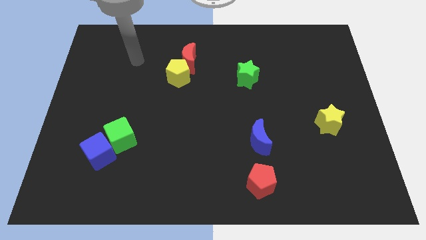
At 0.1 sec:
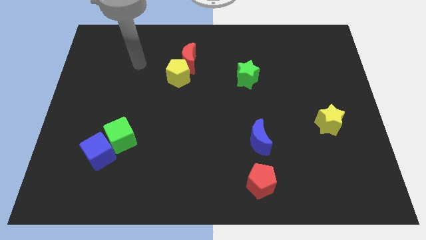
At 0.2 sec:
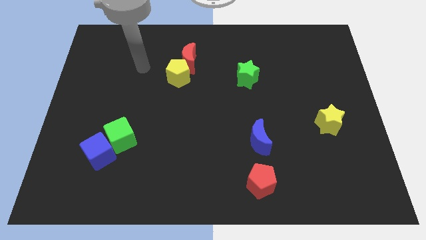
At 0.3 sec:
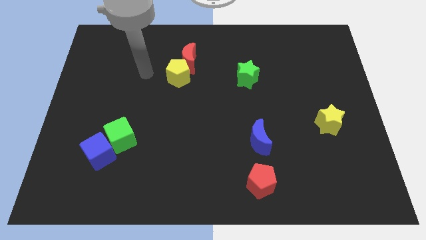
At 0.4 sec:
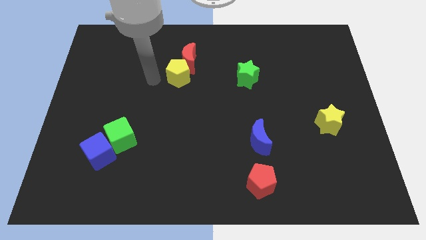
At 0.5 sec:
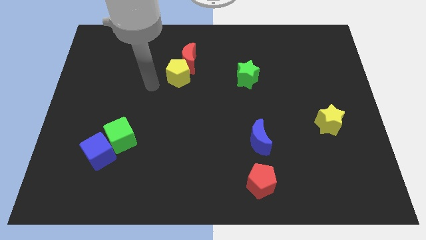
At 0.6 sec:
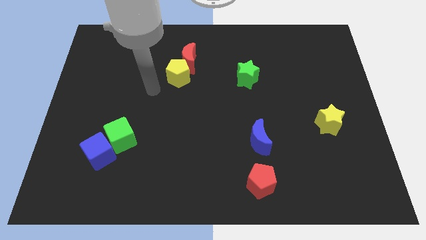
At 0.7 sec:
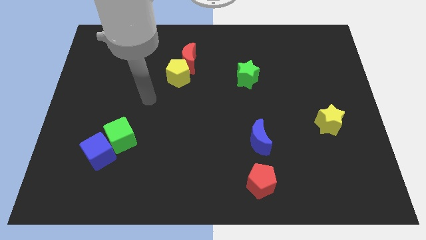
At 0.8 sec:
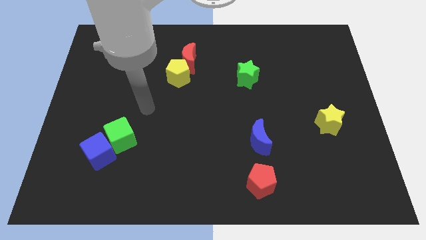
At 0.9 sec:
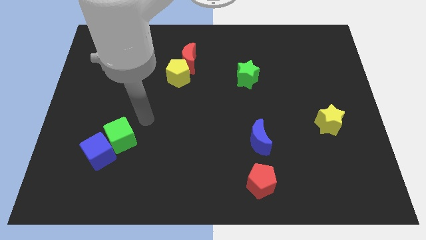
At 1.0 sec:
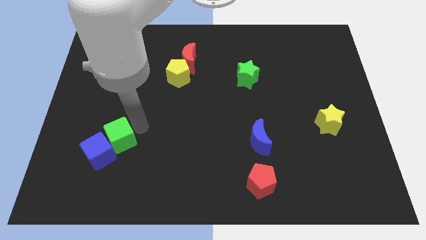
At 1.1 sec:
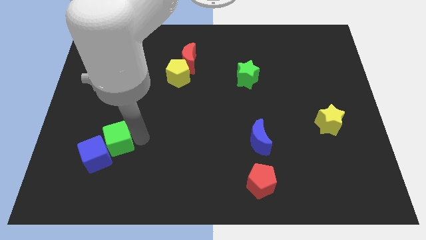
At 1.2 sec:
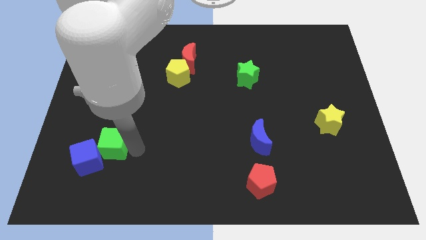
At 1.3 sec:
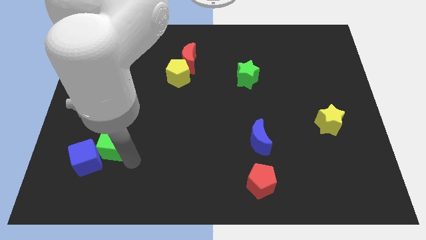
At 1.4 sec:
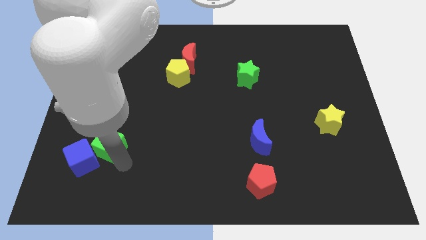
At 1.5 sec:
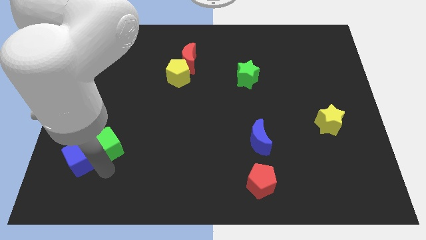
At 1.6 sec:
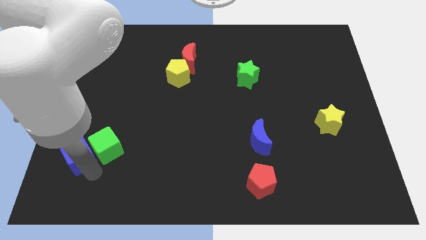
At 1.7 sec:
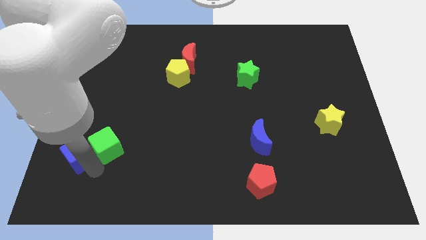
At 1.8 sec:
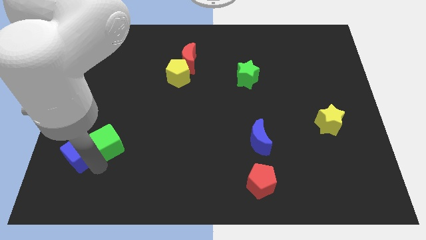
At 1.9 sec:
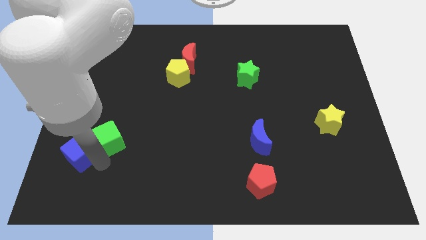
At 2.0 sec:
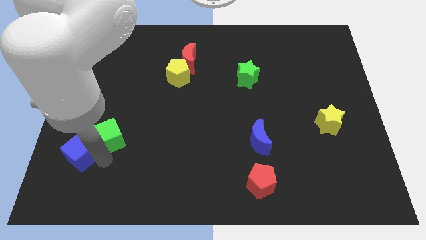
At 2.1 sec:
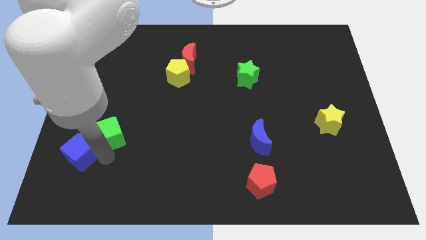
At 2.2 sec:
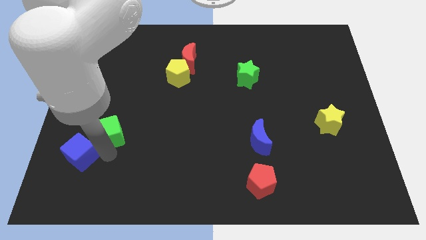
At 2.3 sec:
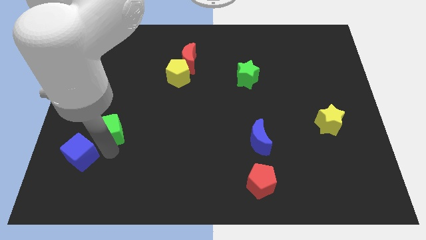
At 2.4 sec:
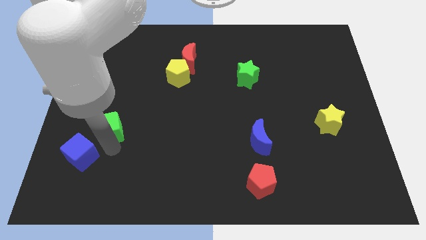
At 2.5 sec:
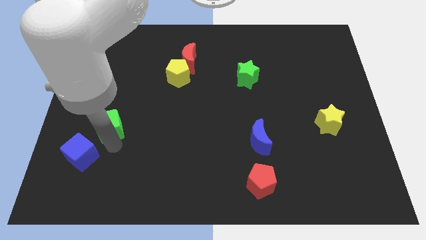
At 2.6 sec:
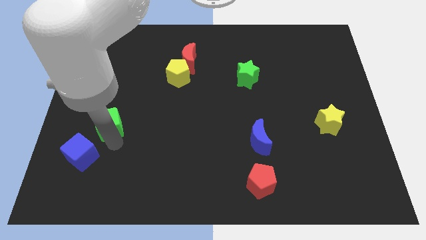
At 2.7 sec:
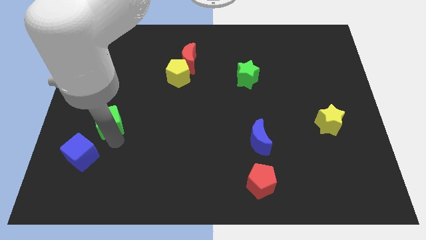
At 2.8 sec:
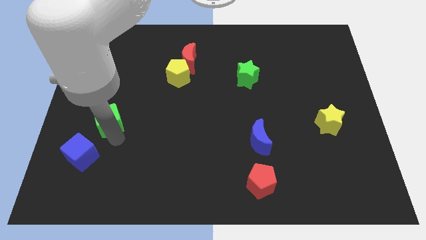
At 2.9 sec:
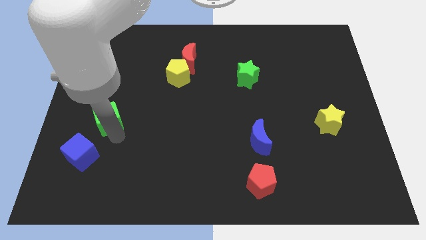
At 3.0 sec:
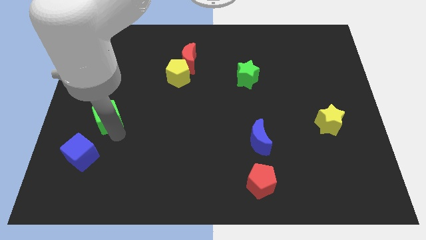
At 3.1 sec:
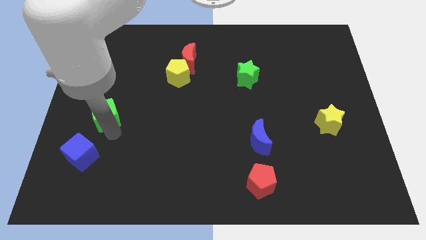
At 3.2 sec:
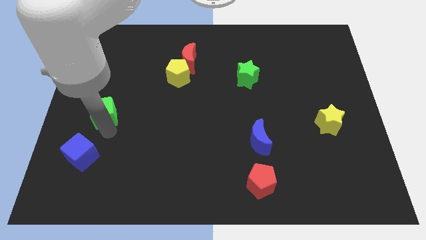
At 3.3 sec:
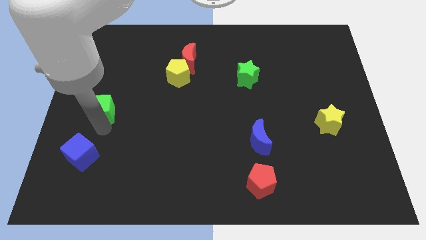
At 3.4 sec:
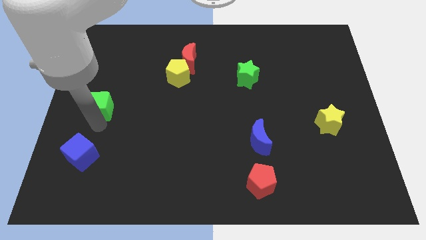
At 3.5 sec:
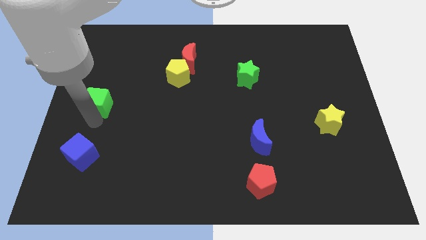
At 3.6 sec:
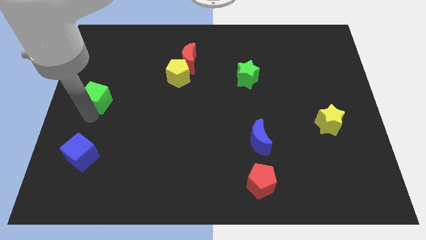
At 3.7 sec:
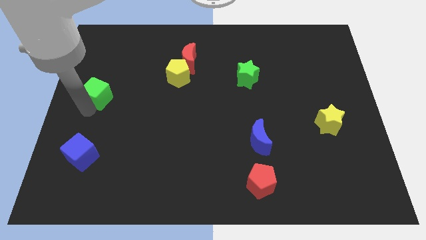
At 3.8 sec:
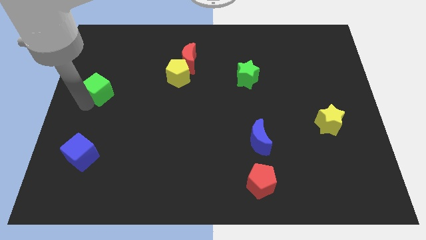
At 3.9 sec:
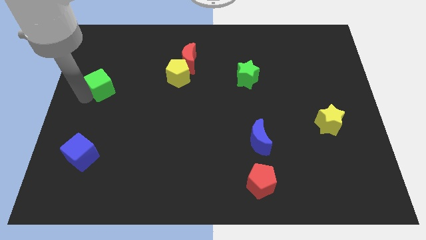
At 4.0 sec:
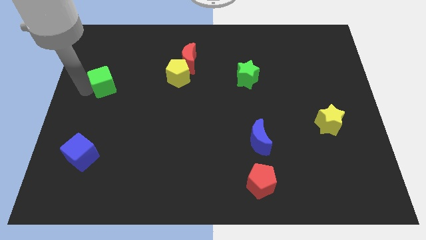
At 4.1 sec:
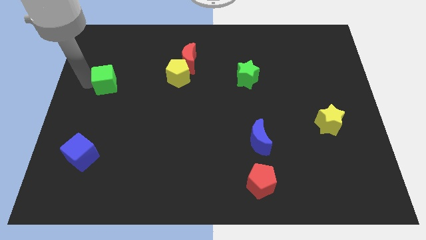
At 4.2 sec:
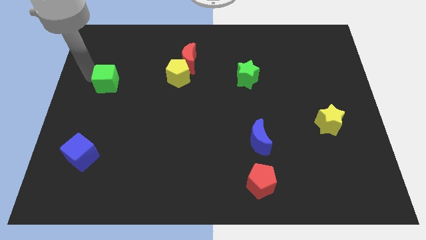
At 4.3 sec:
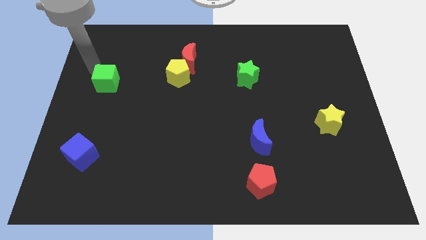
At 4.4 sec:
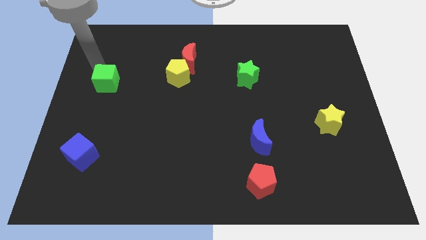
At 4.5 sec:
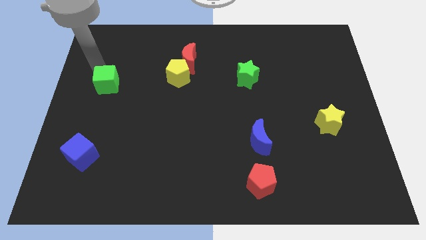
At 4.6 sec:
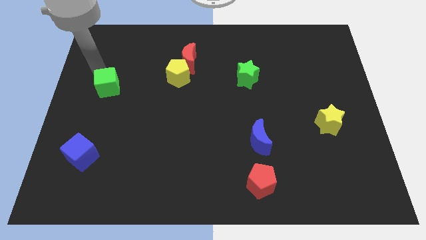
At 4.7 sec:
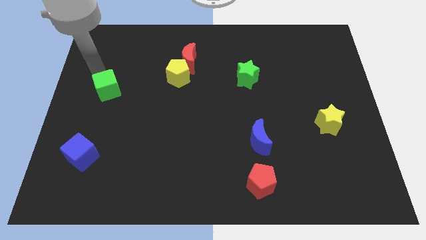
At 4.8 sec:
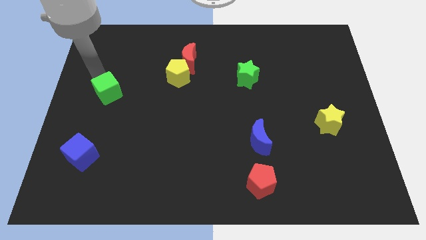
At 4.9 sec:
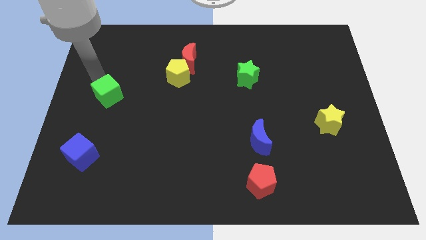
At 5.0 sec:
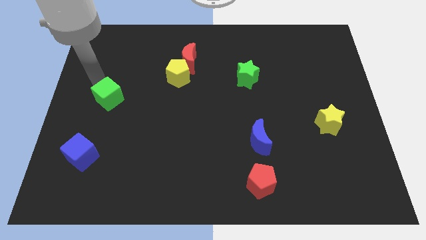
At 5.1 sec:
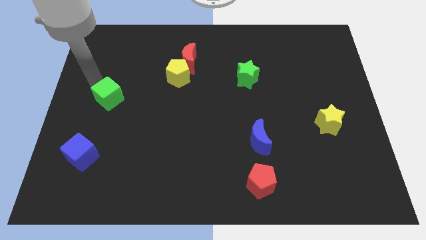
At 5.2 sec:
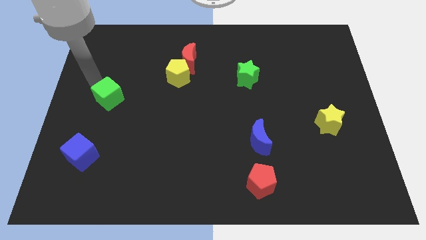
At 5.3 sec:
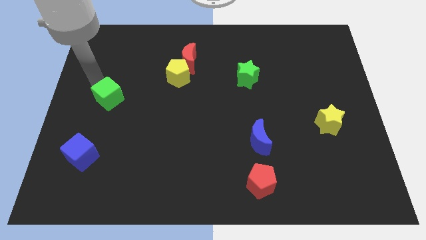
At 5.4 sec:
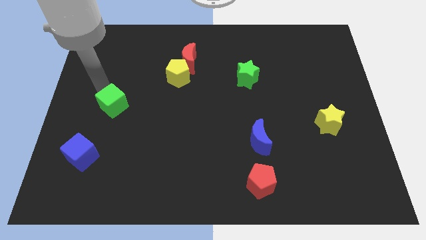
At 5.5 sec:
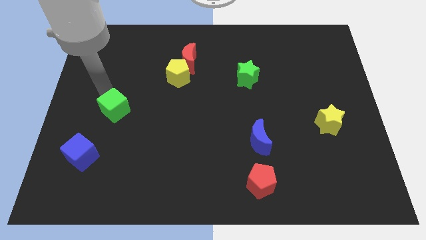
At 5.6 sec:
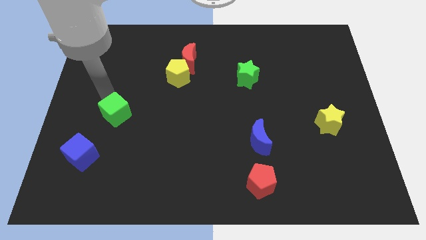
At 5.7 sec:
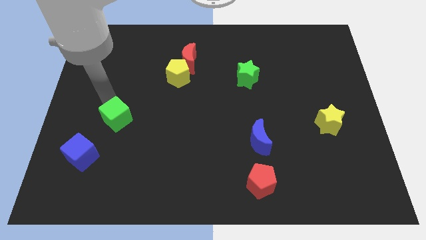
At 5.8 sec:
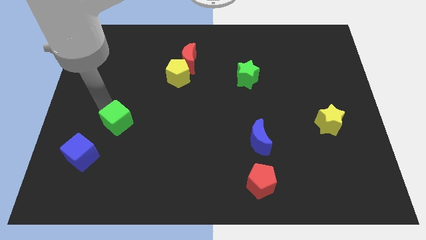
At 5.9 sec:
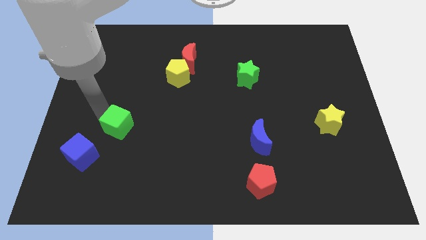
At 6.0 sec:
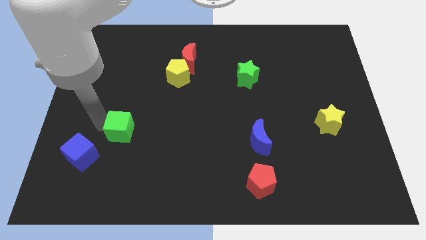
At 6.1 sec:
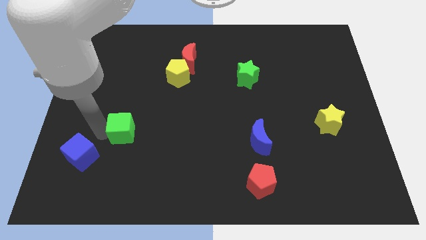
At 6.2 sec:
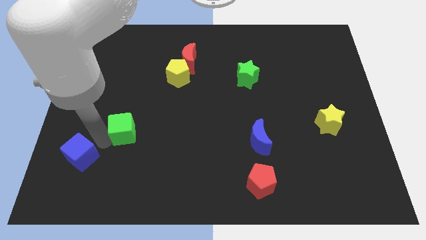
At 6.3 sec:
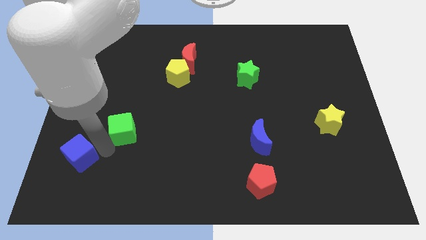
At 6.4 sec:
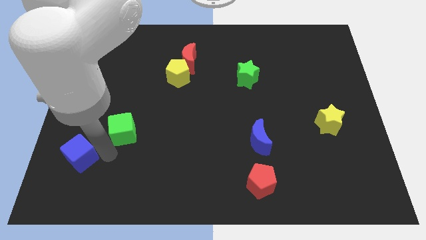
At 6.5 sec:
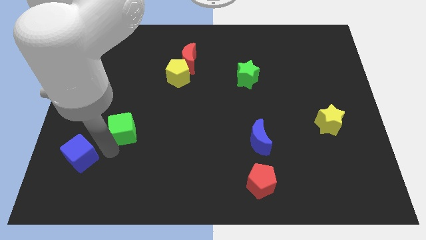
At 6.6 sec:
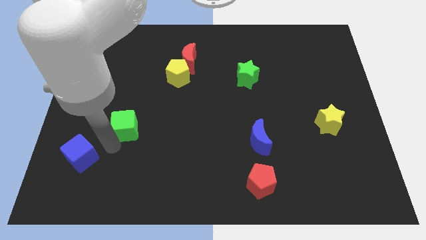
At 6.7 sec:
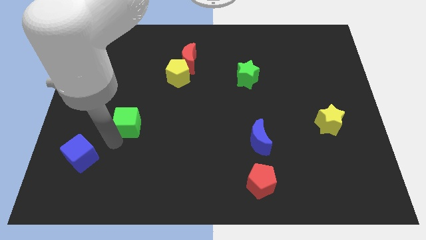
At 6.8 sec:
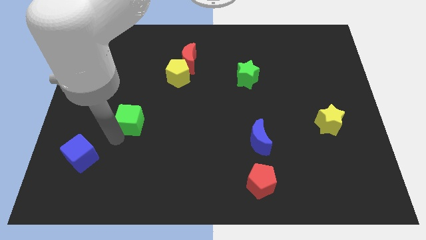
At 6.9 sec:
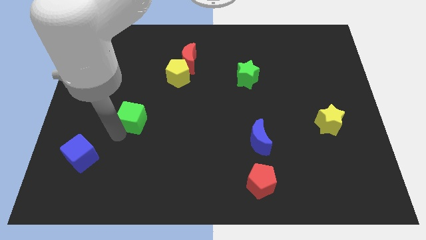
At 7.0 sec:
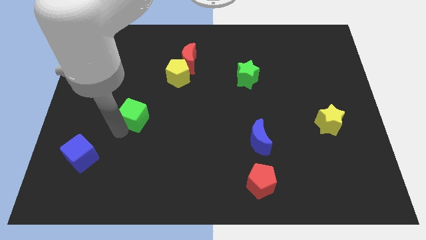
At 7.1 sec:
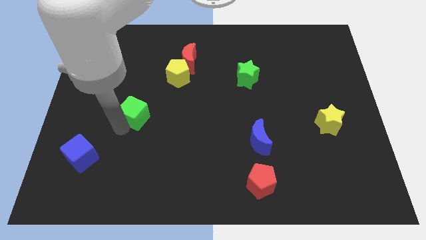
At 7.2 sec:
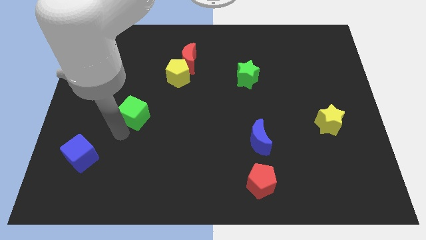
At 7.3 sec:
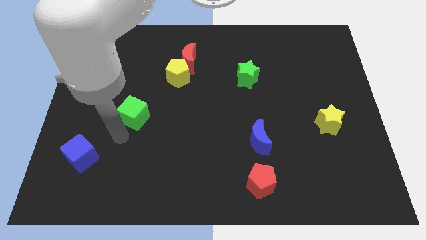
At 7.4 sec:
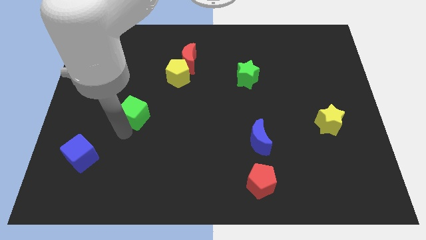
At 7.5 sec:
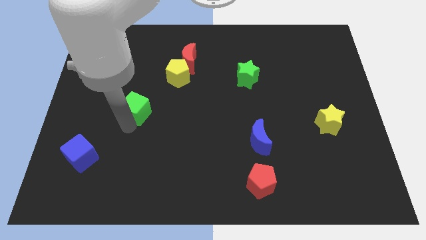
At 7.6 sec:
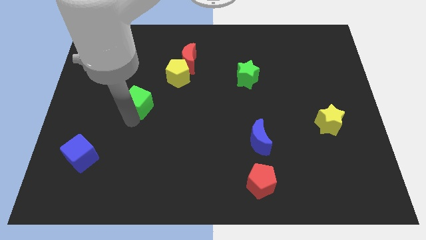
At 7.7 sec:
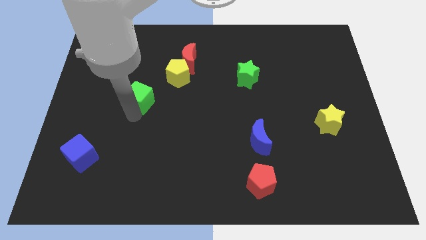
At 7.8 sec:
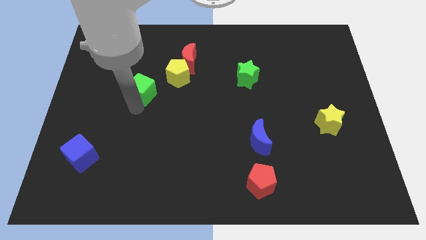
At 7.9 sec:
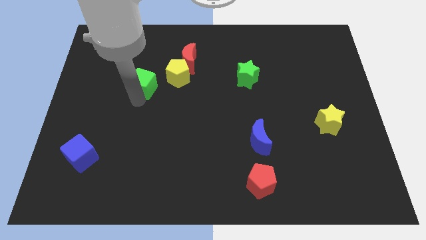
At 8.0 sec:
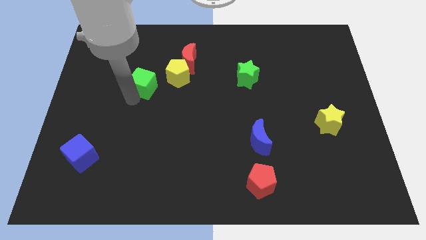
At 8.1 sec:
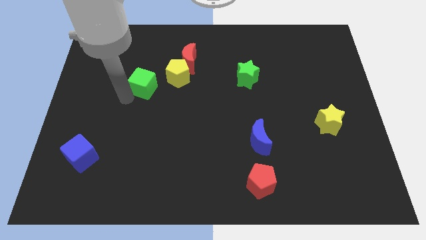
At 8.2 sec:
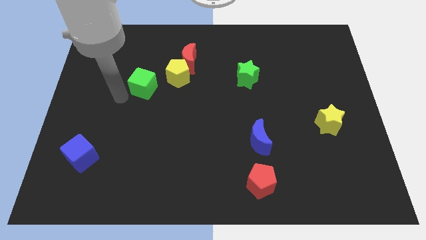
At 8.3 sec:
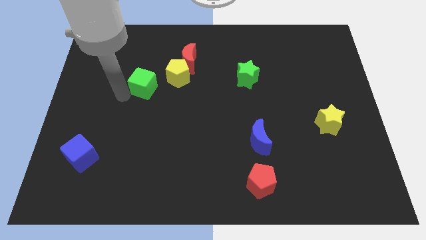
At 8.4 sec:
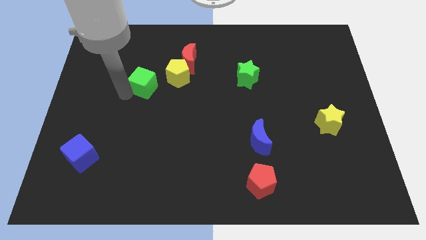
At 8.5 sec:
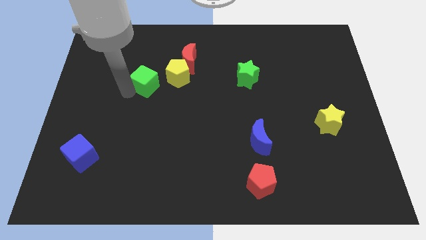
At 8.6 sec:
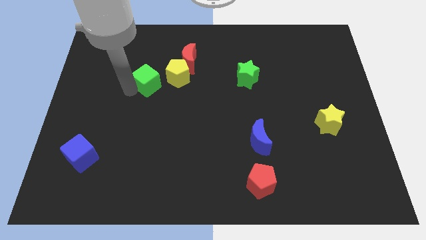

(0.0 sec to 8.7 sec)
push the green cube diagonally down and to the left of the red moon
